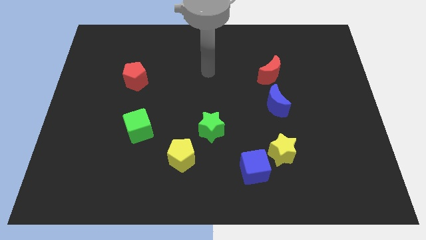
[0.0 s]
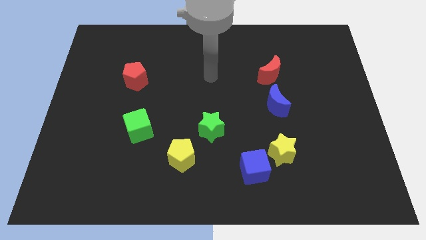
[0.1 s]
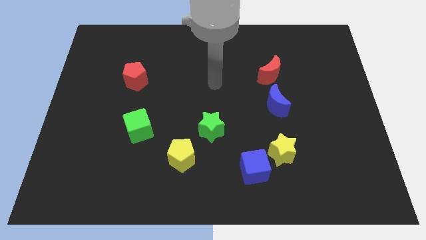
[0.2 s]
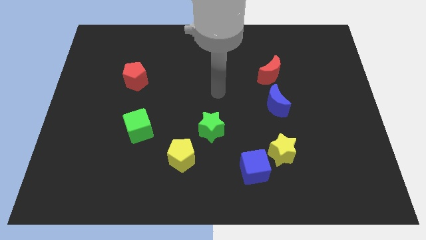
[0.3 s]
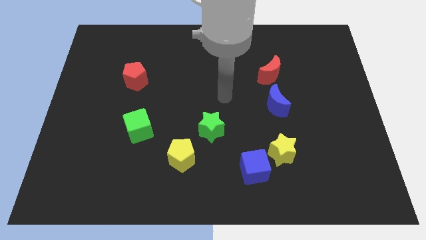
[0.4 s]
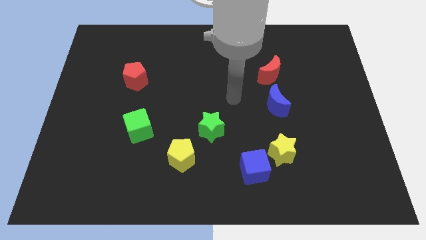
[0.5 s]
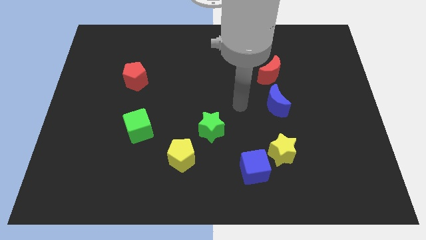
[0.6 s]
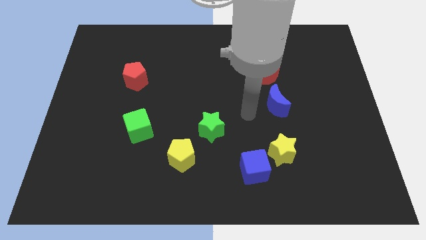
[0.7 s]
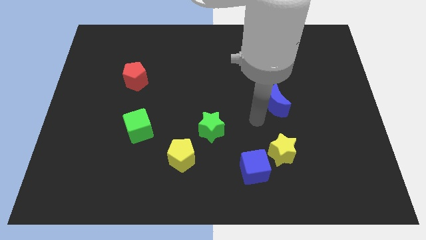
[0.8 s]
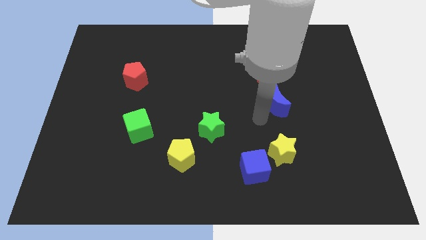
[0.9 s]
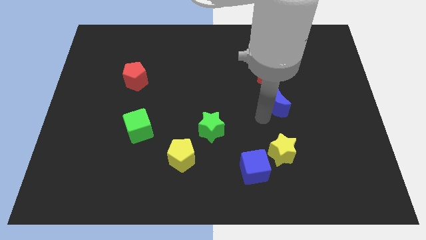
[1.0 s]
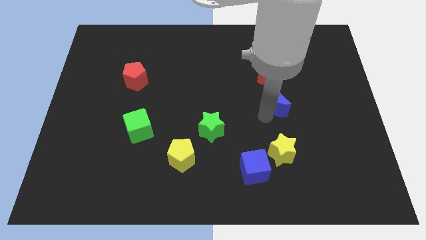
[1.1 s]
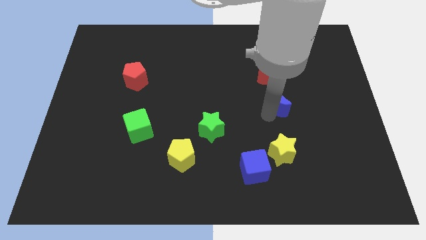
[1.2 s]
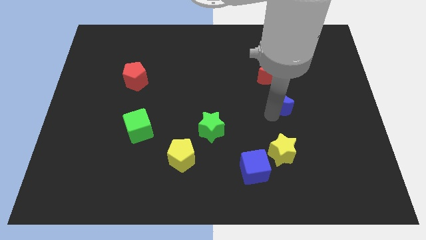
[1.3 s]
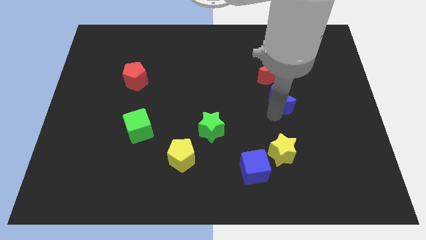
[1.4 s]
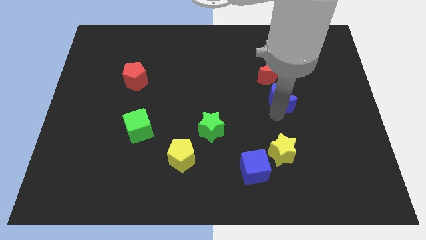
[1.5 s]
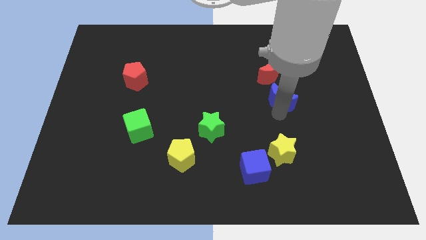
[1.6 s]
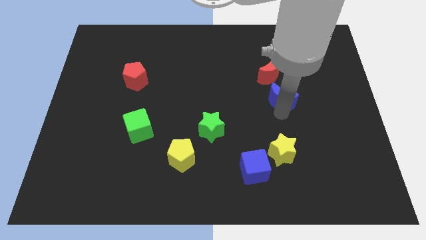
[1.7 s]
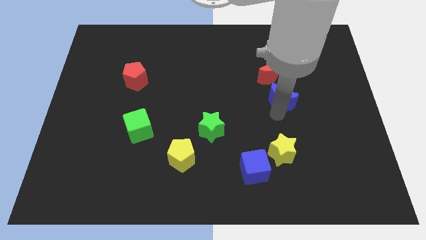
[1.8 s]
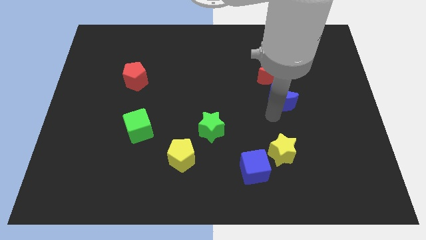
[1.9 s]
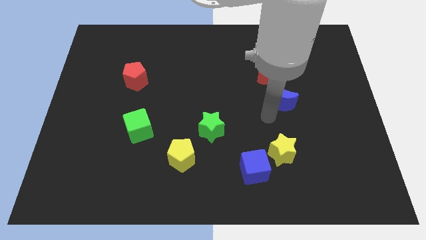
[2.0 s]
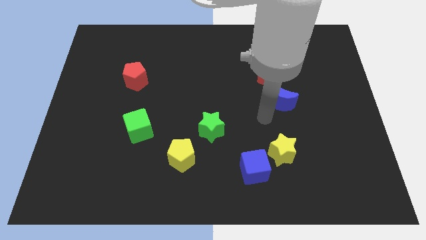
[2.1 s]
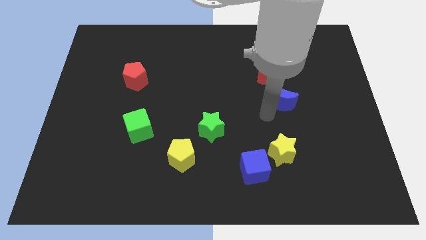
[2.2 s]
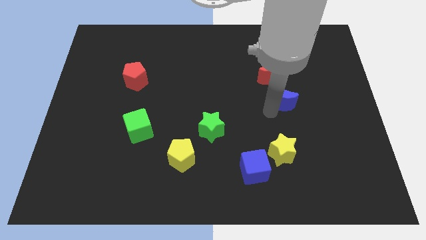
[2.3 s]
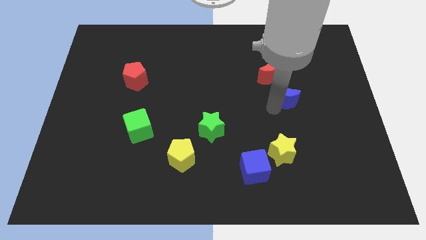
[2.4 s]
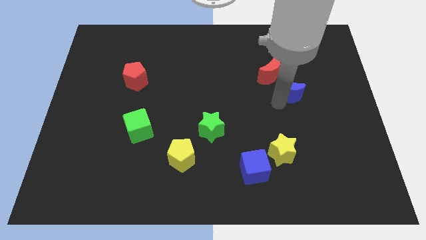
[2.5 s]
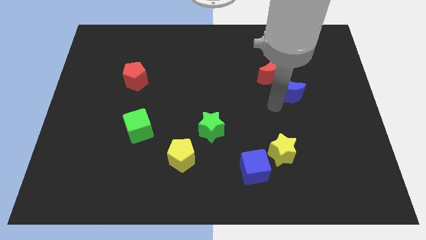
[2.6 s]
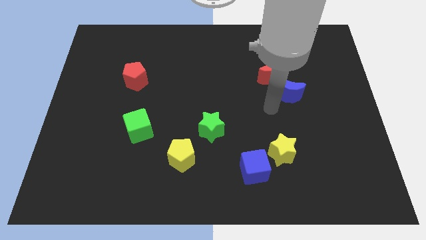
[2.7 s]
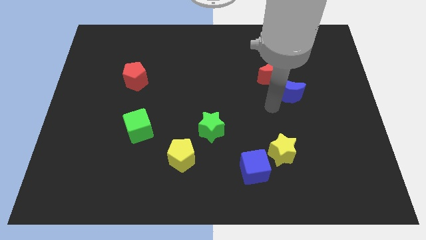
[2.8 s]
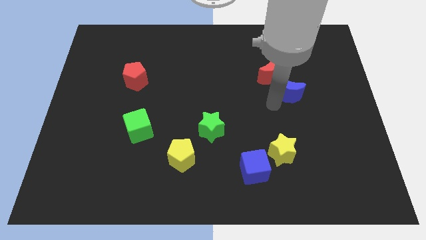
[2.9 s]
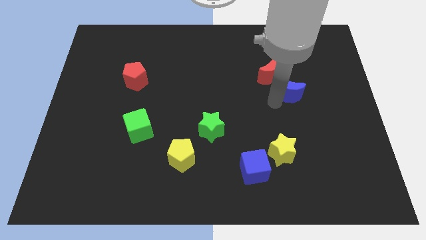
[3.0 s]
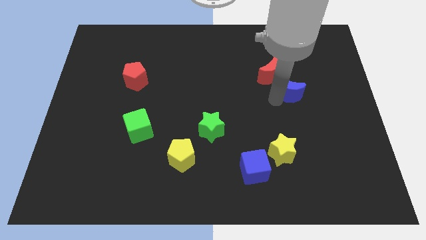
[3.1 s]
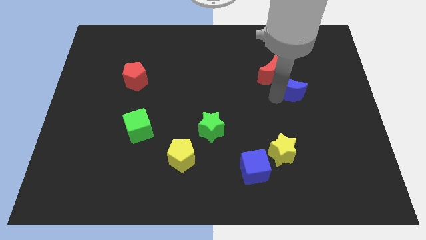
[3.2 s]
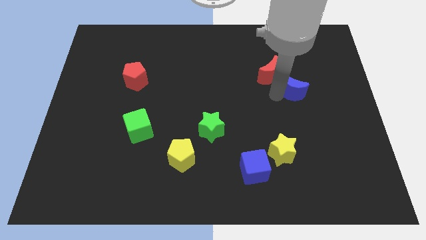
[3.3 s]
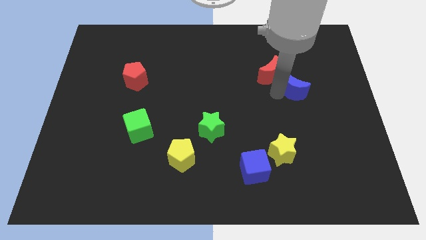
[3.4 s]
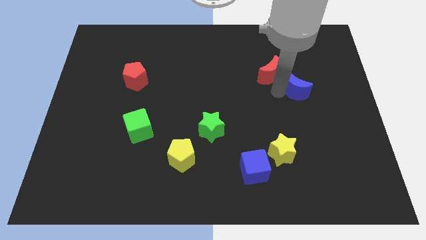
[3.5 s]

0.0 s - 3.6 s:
slide the blue moon up and to the right a bit

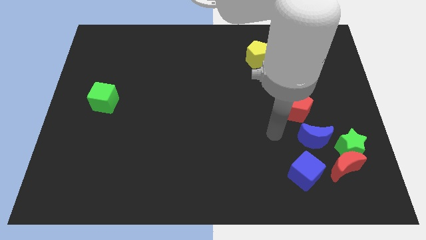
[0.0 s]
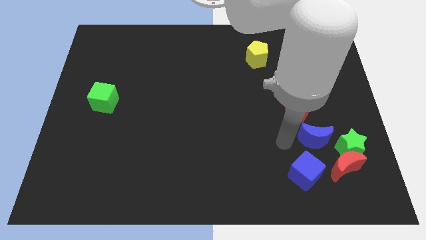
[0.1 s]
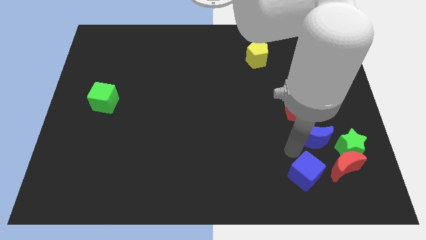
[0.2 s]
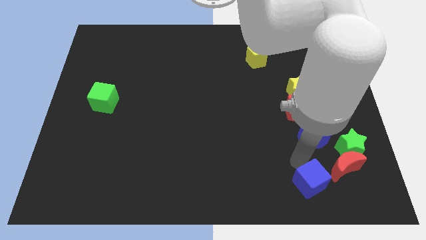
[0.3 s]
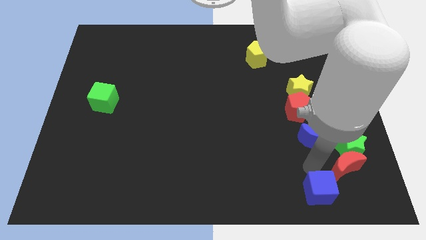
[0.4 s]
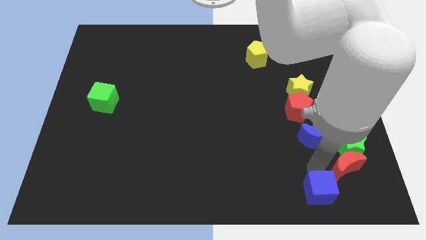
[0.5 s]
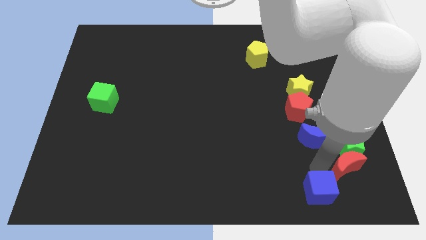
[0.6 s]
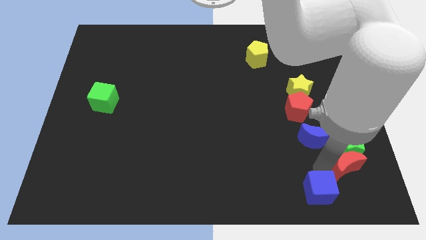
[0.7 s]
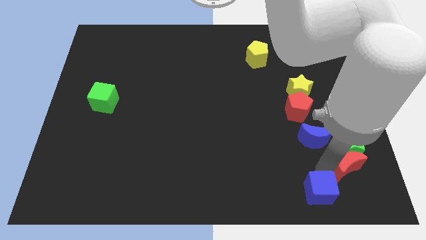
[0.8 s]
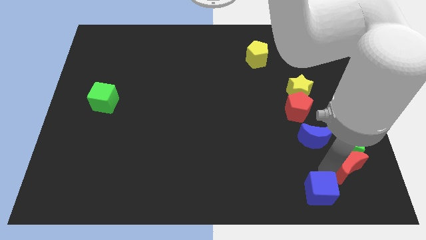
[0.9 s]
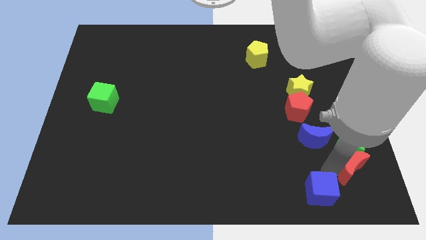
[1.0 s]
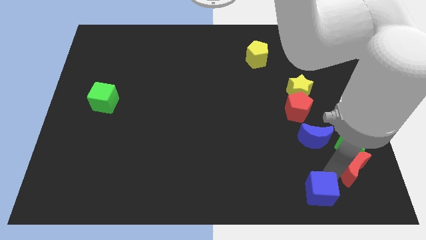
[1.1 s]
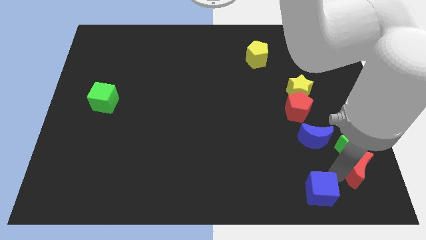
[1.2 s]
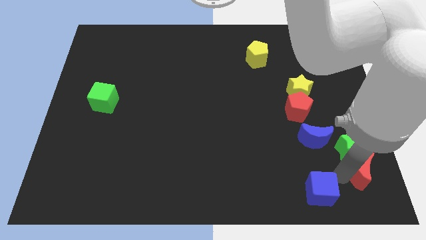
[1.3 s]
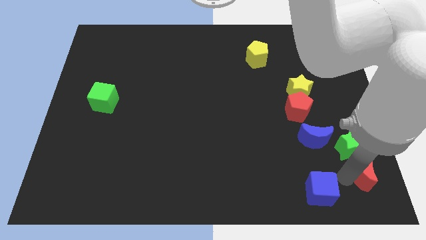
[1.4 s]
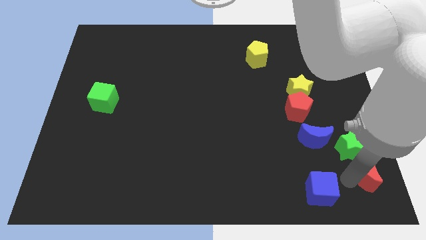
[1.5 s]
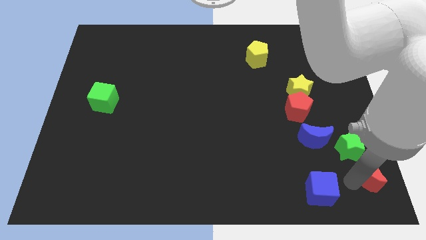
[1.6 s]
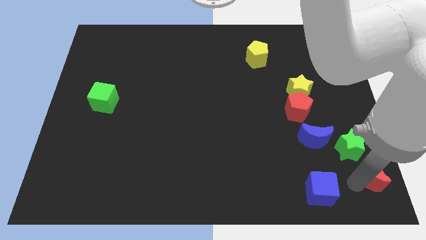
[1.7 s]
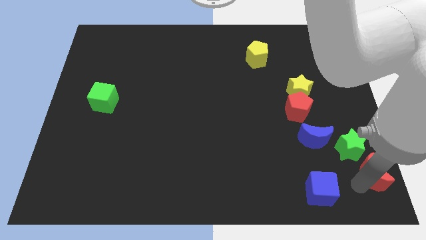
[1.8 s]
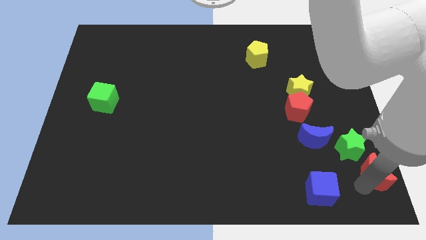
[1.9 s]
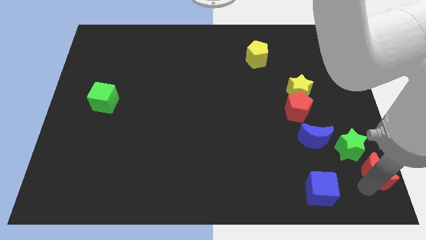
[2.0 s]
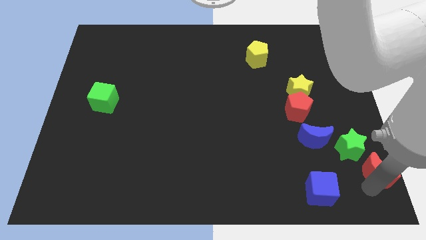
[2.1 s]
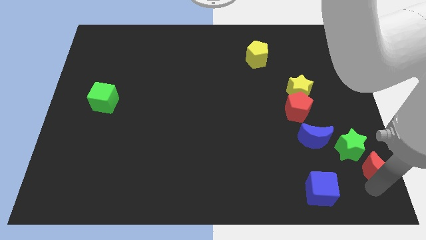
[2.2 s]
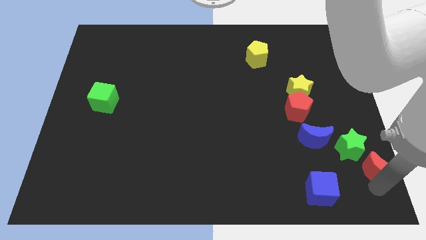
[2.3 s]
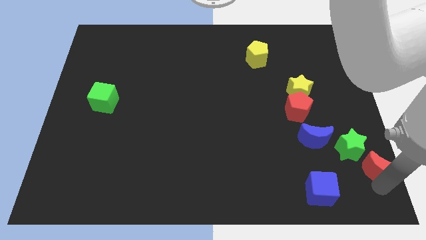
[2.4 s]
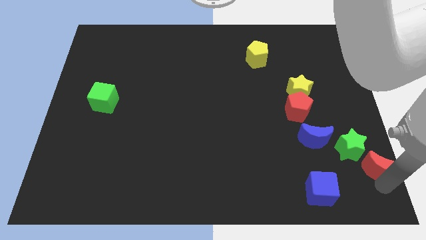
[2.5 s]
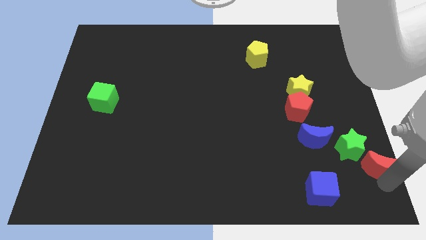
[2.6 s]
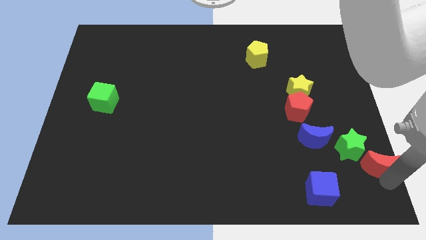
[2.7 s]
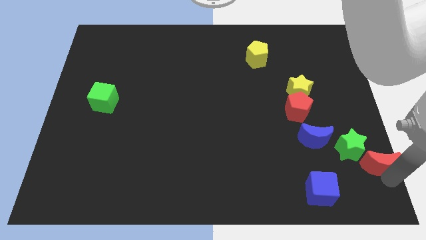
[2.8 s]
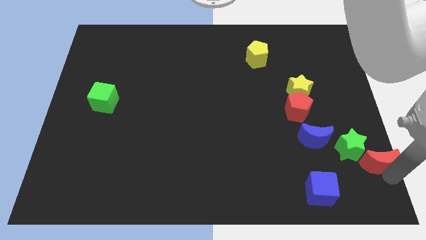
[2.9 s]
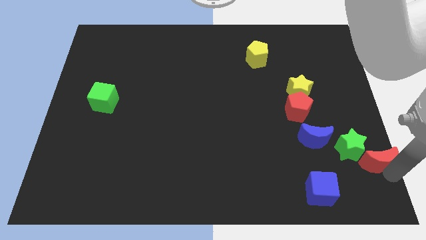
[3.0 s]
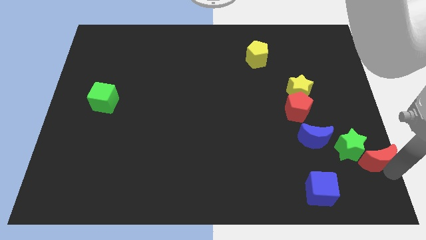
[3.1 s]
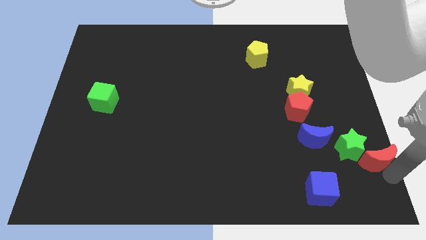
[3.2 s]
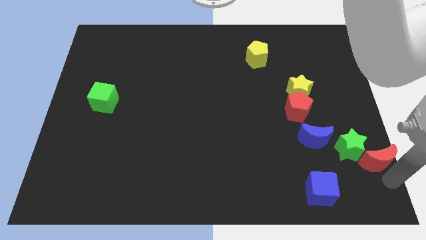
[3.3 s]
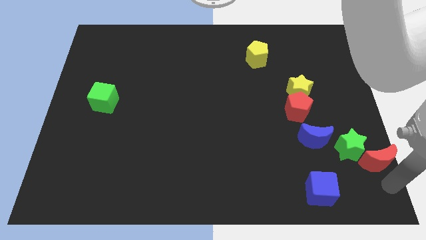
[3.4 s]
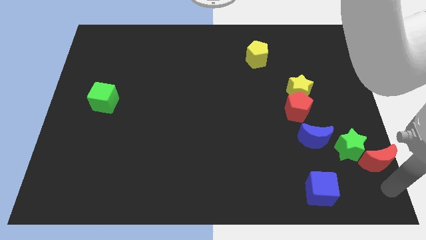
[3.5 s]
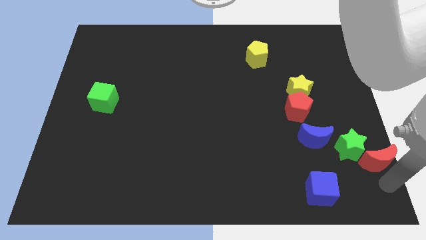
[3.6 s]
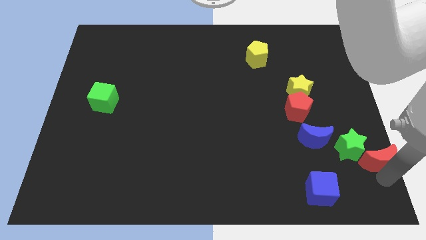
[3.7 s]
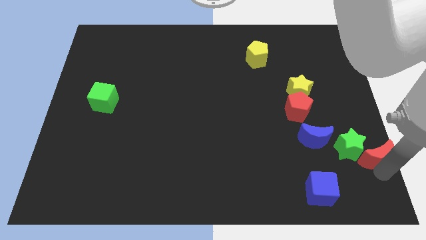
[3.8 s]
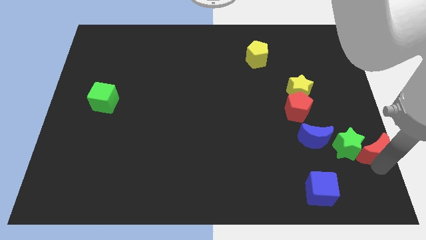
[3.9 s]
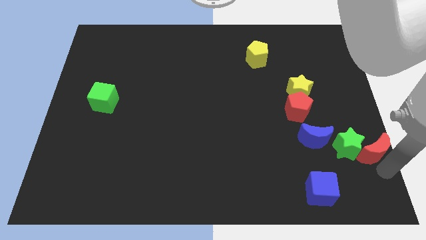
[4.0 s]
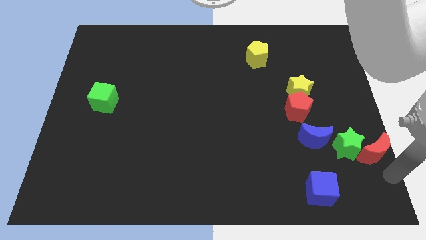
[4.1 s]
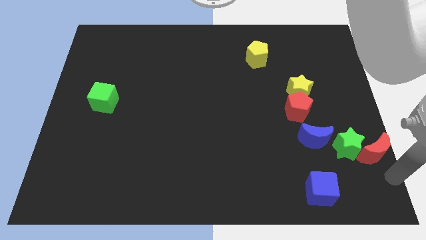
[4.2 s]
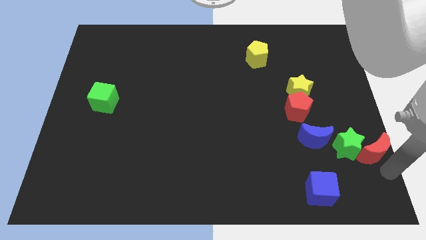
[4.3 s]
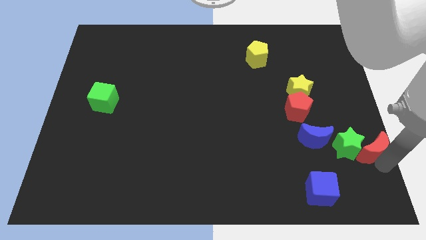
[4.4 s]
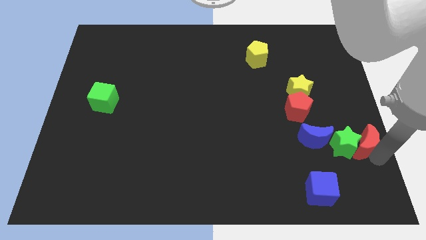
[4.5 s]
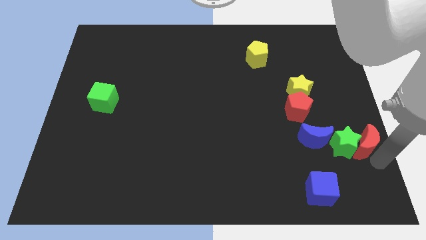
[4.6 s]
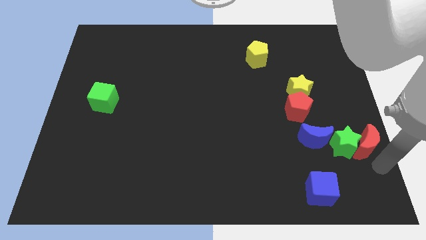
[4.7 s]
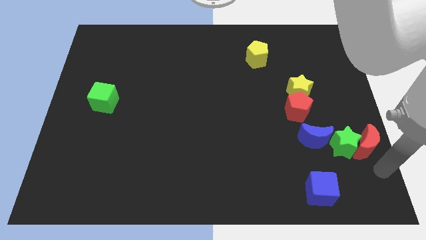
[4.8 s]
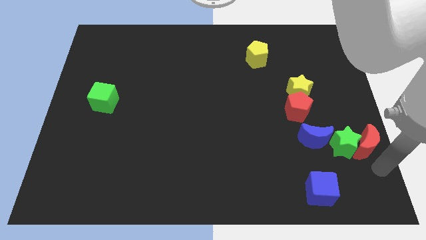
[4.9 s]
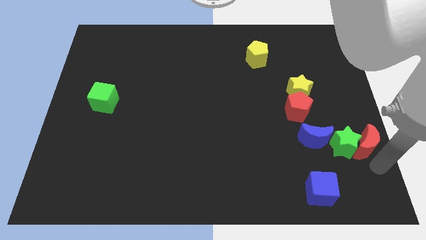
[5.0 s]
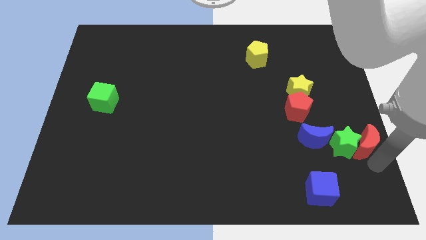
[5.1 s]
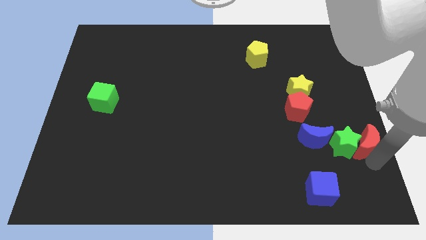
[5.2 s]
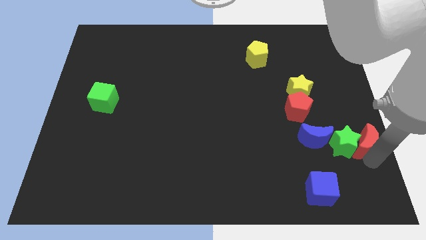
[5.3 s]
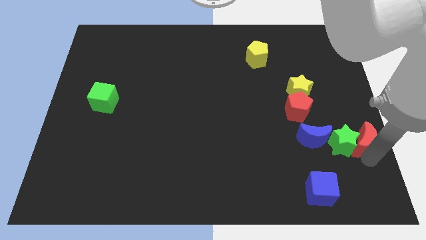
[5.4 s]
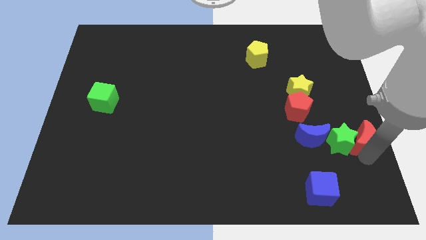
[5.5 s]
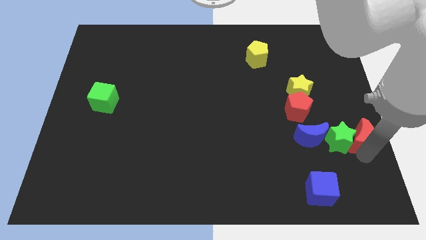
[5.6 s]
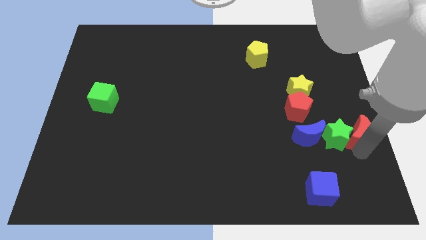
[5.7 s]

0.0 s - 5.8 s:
push the red moon a little bit up
